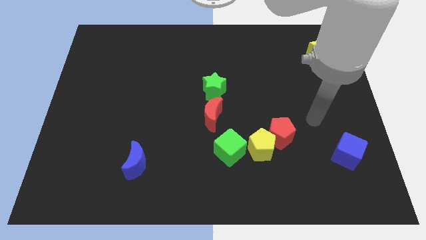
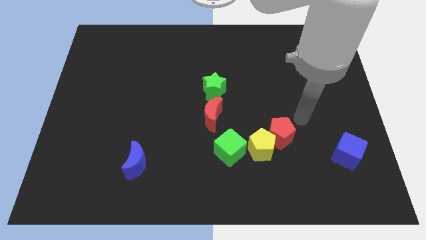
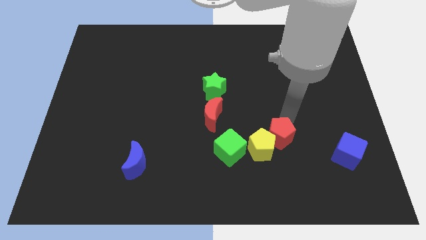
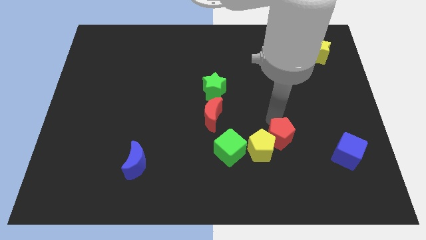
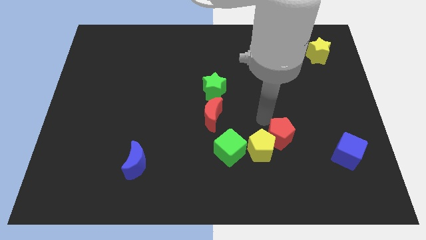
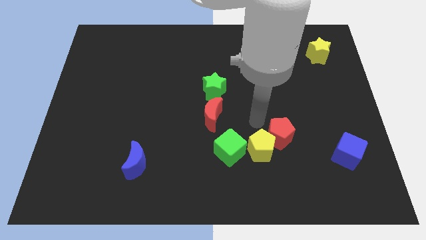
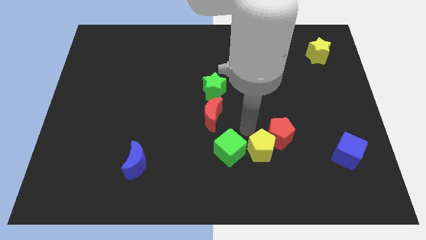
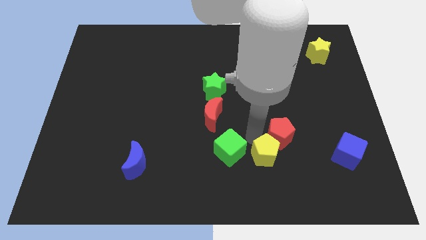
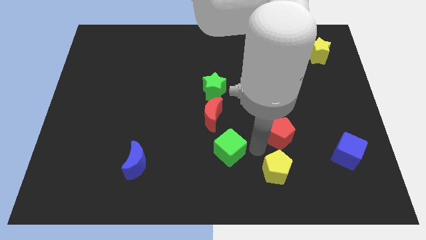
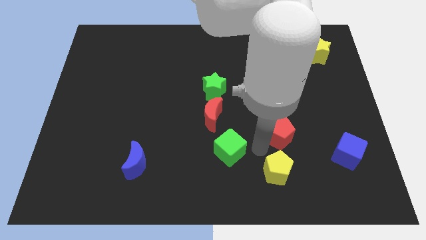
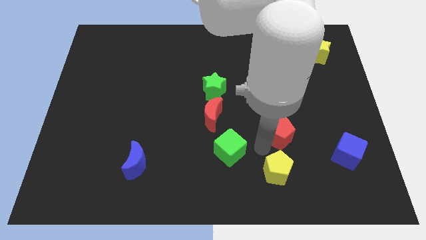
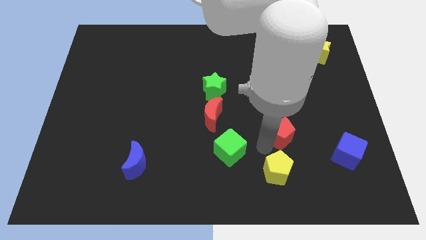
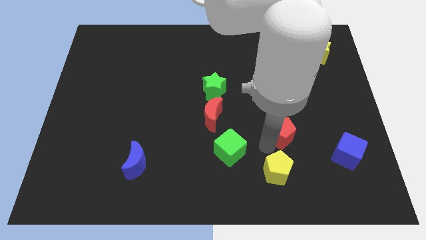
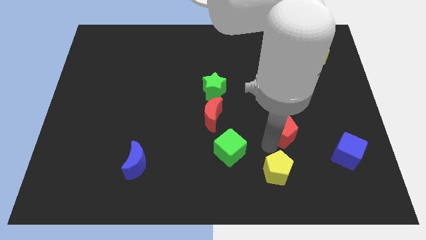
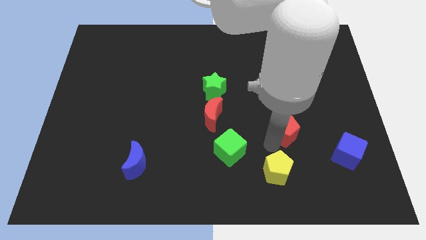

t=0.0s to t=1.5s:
move the red pentagon away from the yellow pentagon

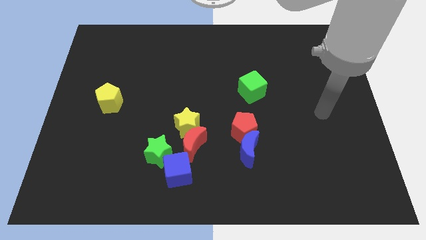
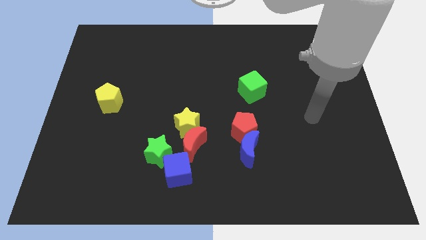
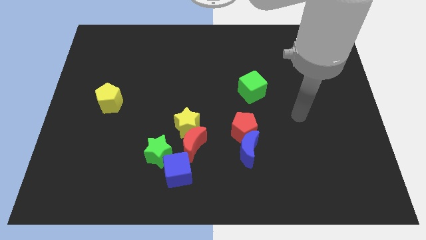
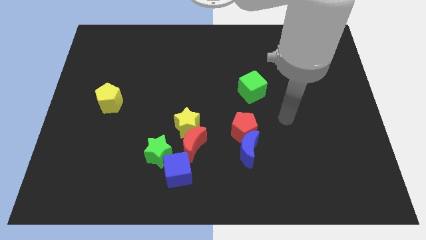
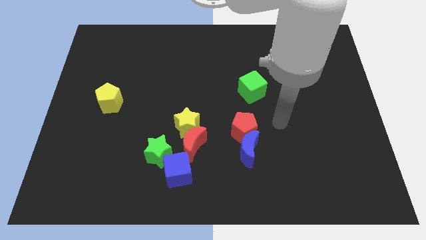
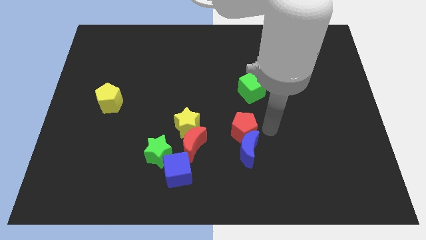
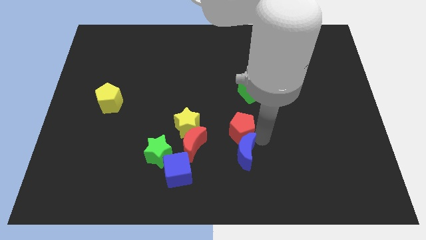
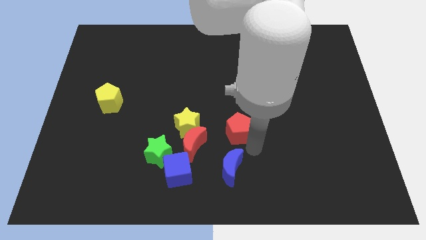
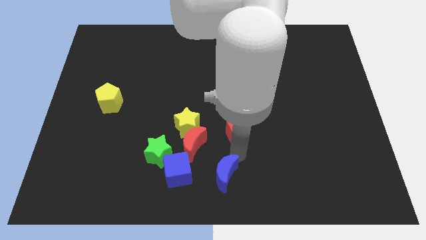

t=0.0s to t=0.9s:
pull the red pentagon apart from the blue moon

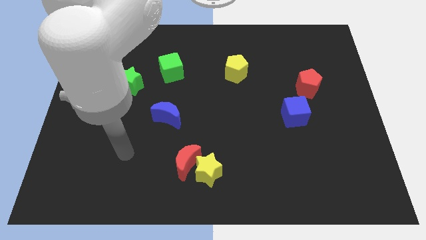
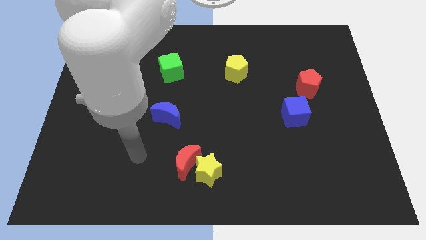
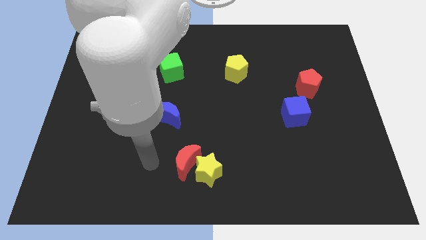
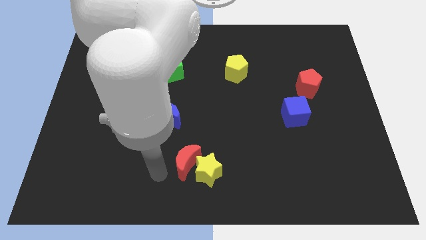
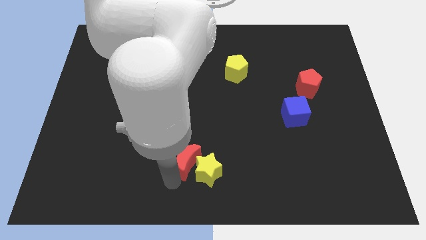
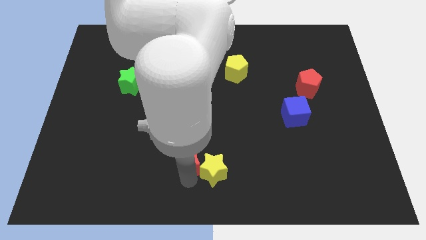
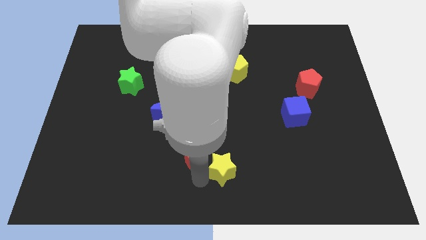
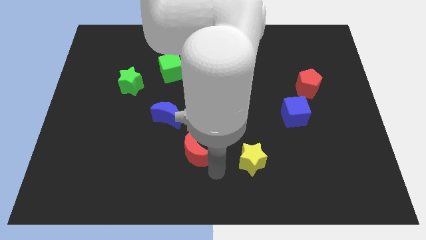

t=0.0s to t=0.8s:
separate the red moon from the yellow star

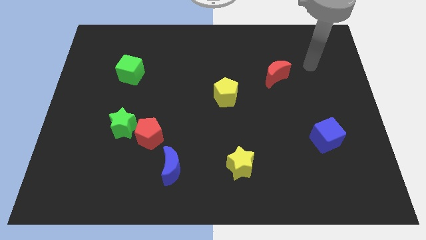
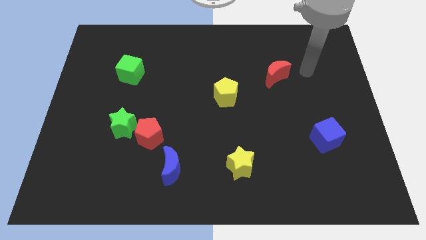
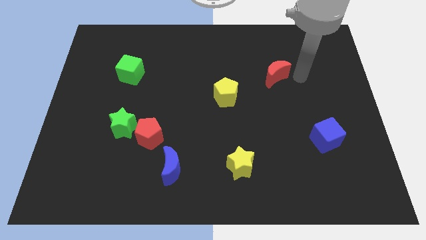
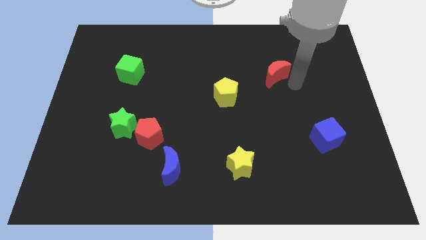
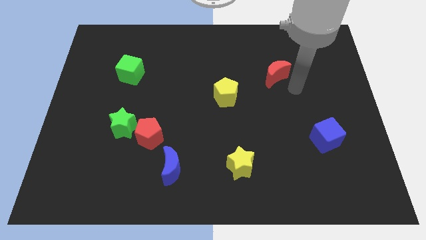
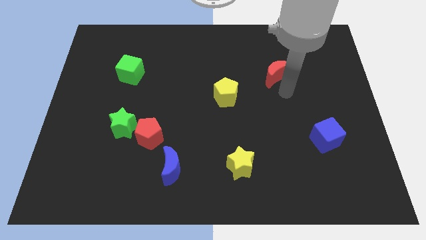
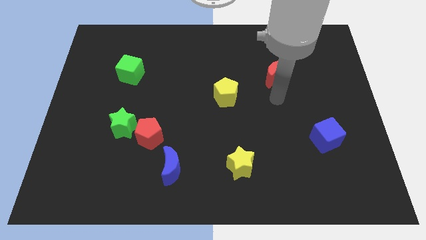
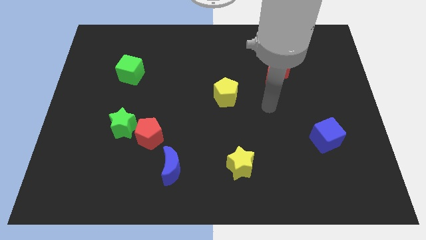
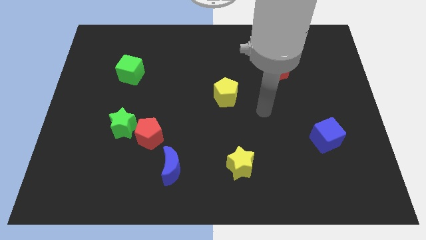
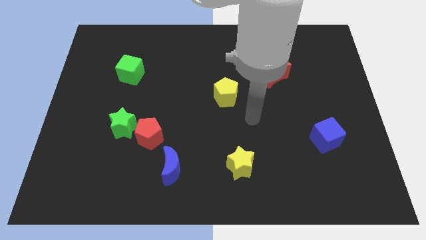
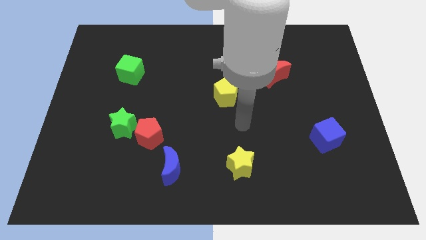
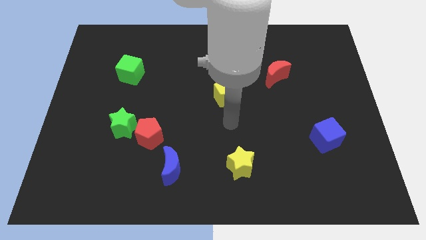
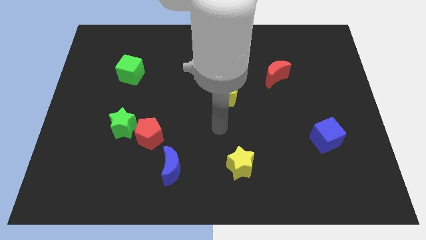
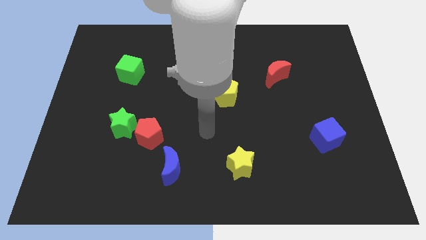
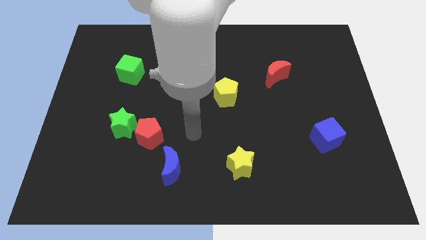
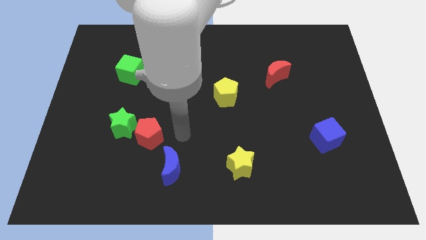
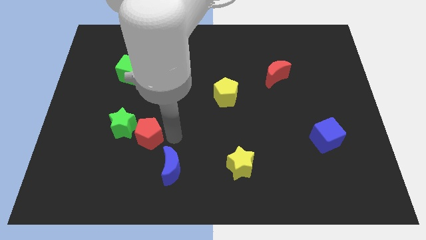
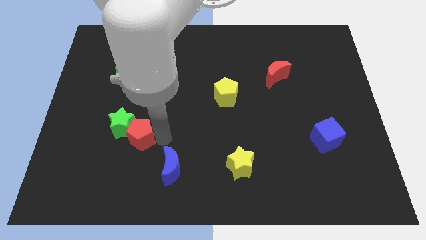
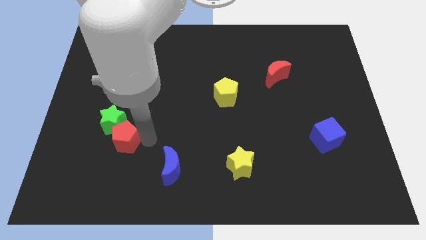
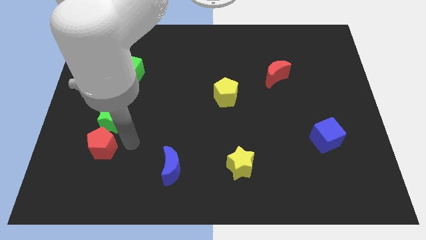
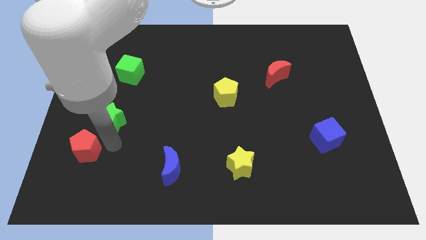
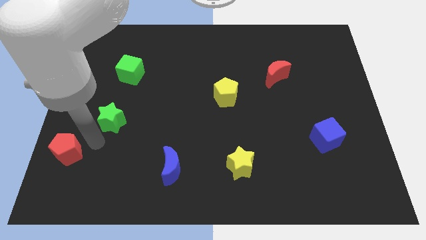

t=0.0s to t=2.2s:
separate the green star from the red pentagon

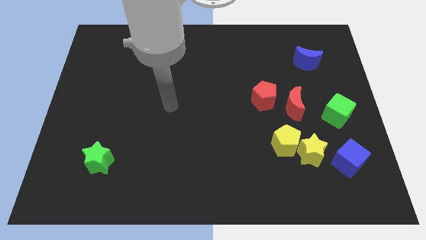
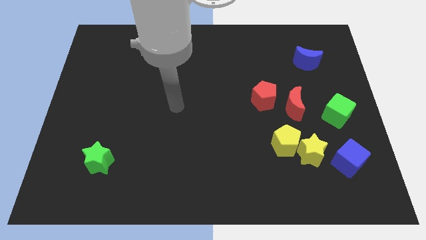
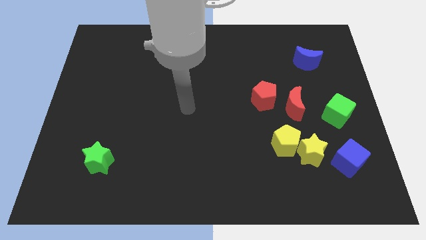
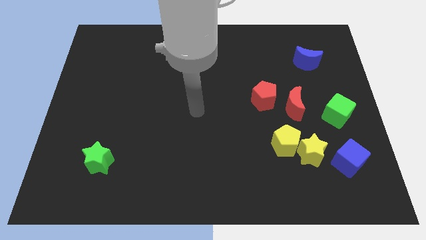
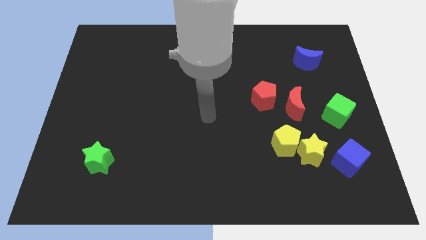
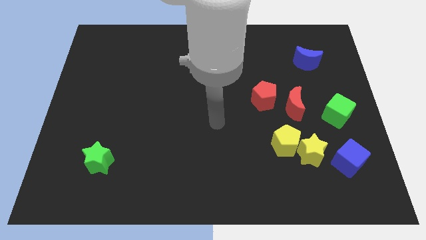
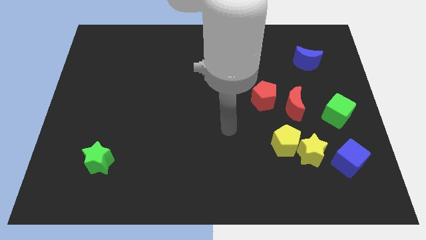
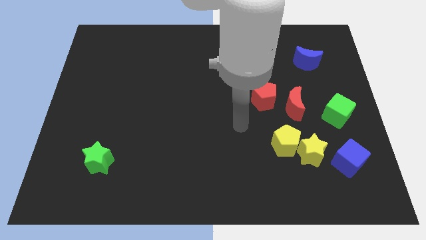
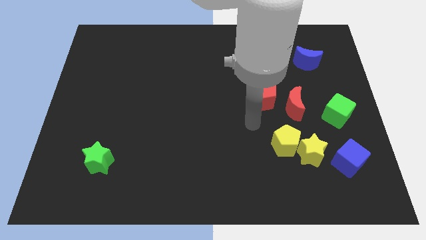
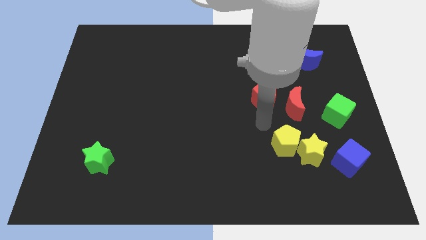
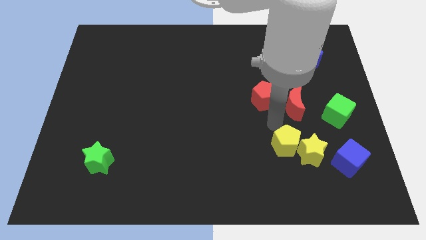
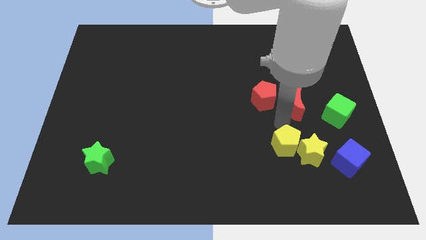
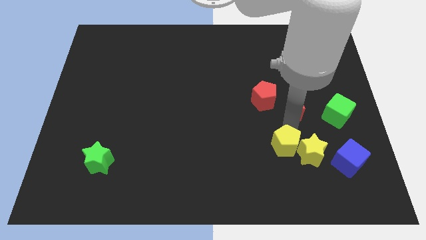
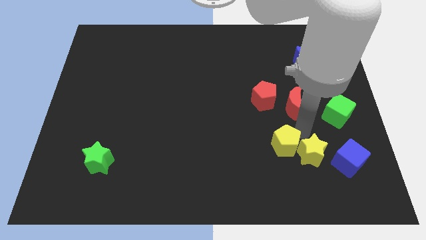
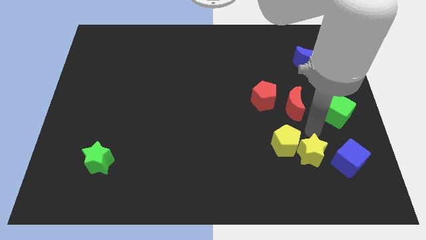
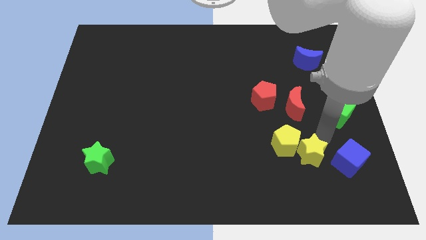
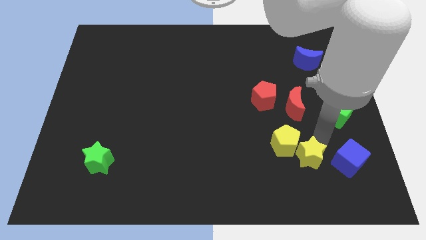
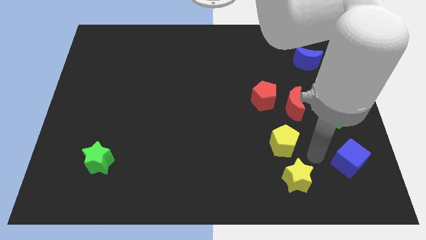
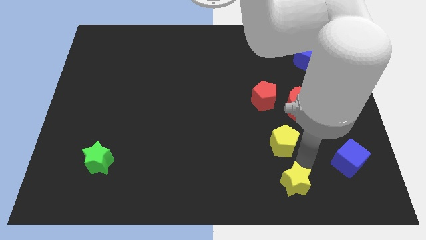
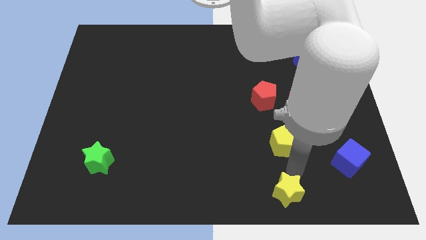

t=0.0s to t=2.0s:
move the yellow pentagon away from the yellow star

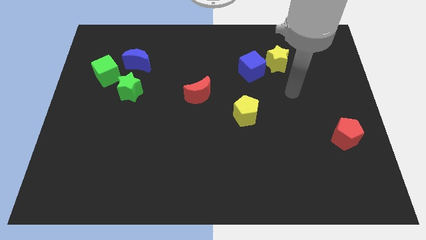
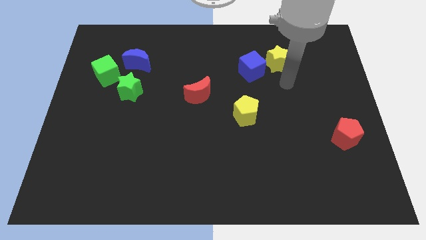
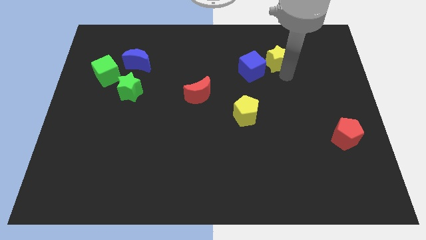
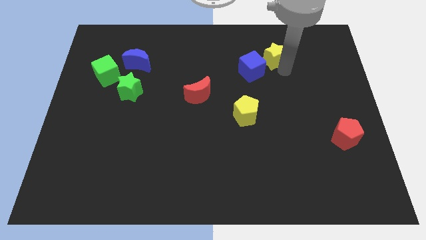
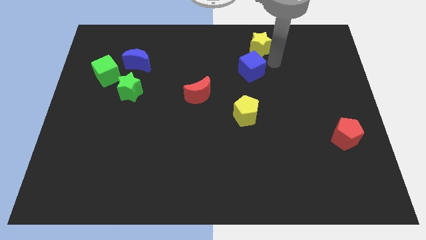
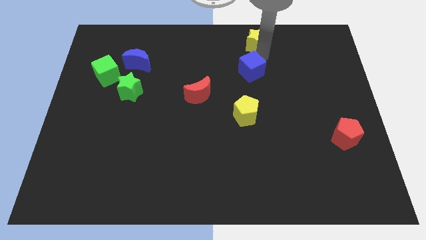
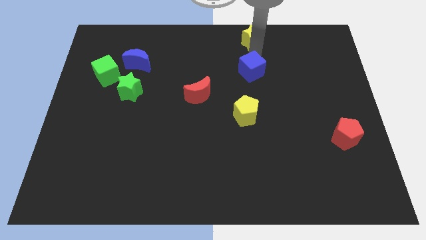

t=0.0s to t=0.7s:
move the blue cube away from the yellow star

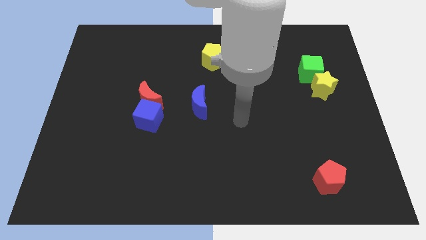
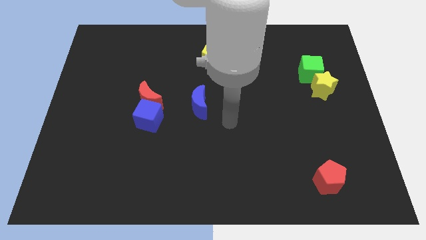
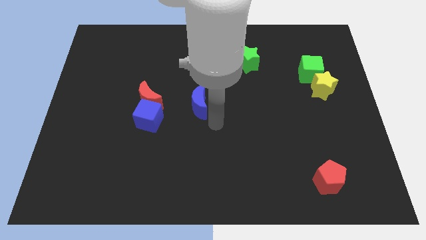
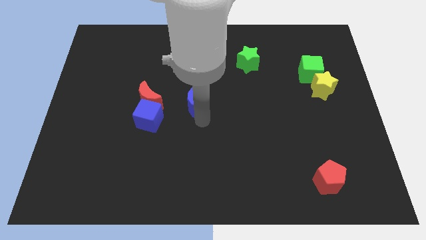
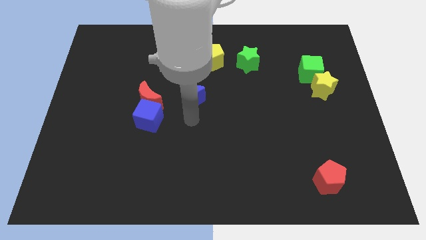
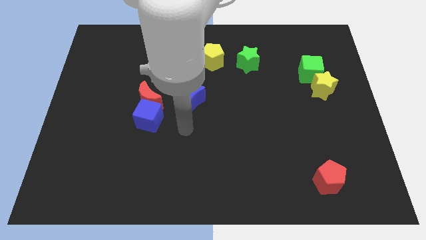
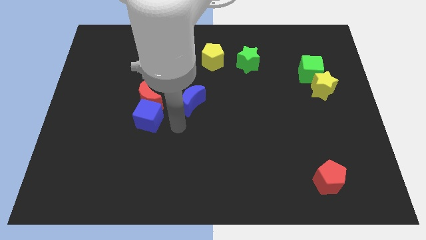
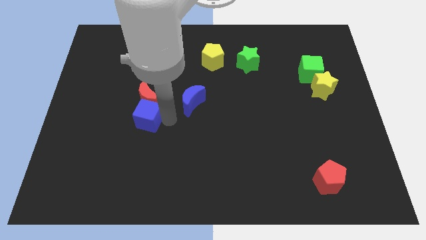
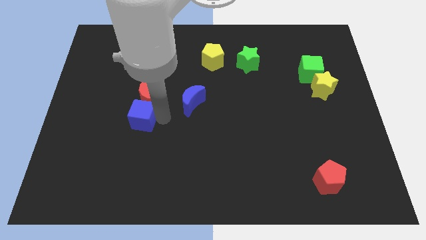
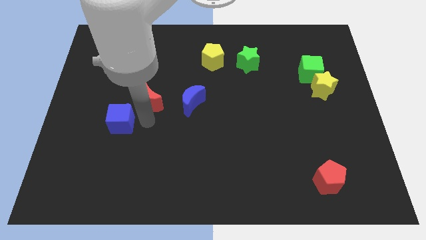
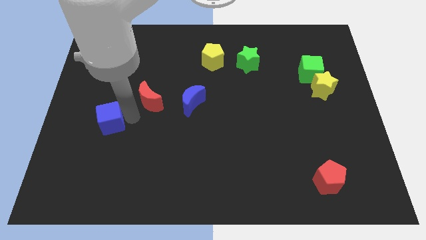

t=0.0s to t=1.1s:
separate the red moon from the blue cube
